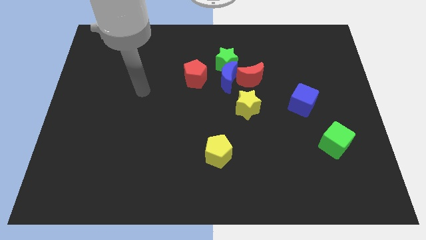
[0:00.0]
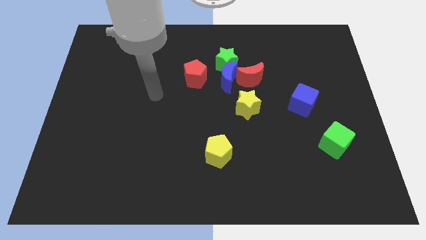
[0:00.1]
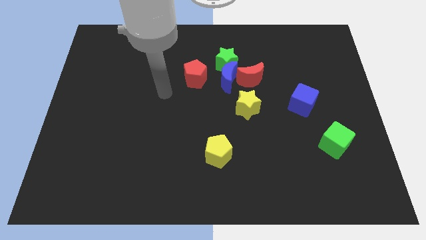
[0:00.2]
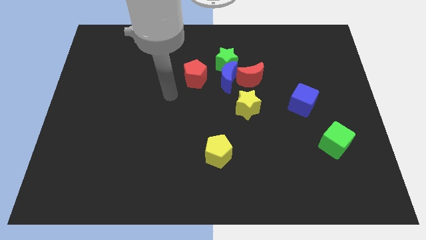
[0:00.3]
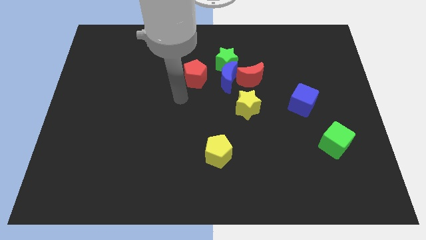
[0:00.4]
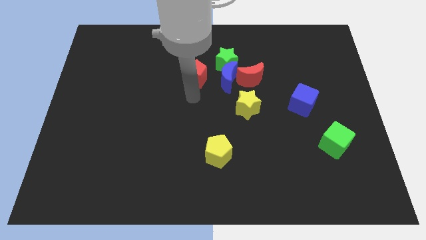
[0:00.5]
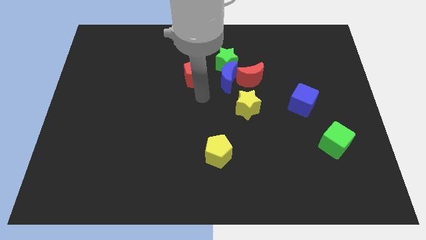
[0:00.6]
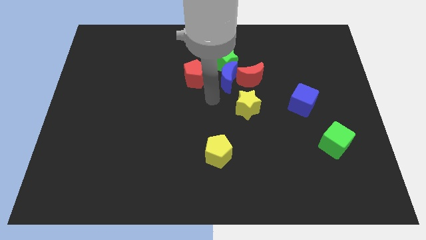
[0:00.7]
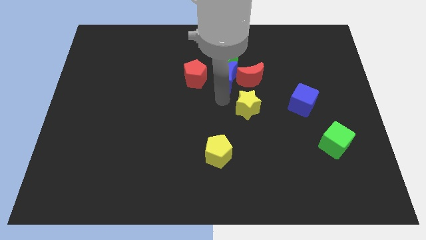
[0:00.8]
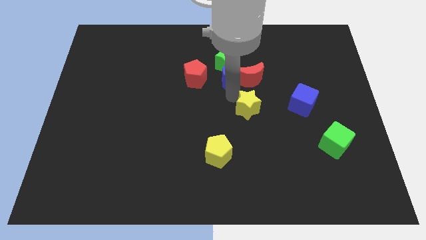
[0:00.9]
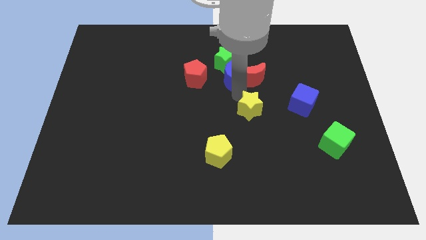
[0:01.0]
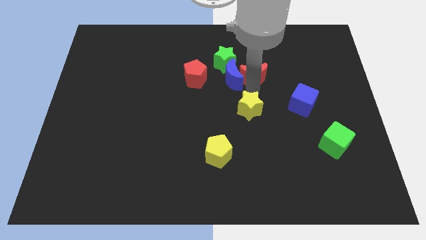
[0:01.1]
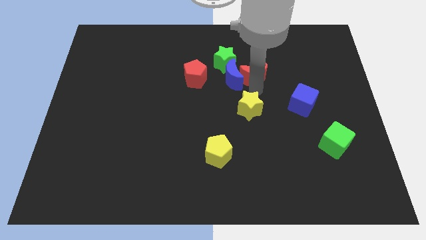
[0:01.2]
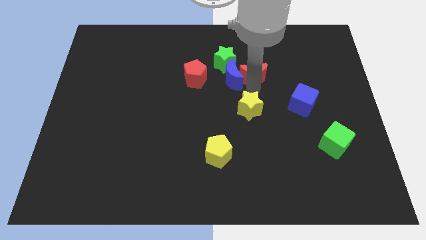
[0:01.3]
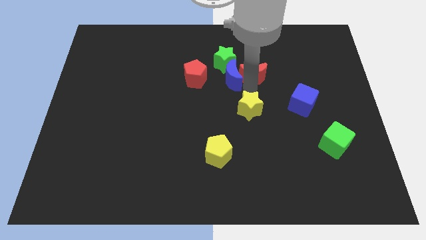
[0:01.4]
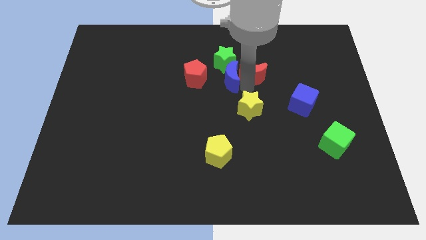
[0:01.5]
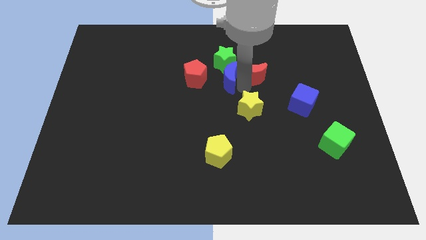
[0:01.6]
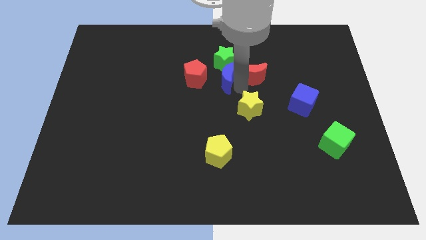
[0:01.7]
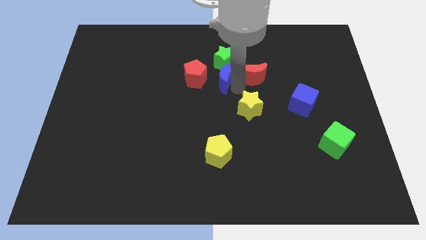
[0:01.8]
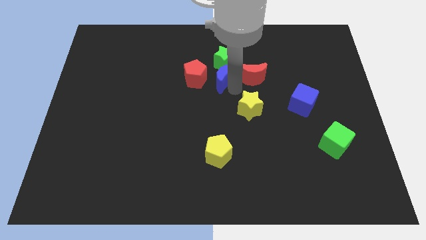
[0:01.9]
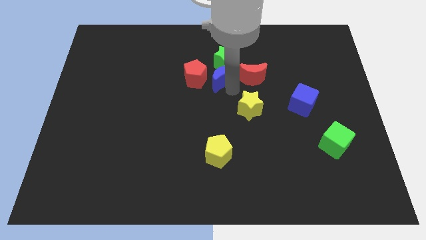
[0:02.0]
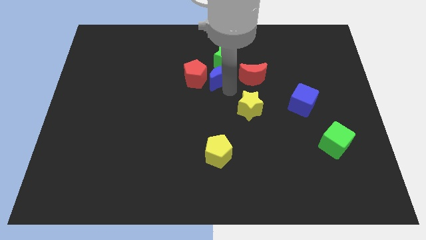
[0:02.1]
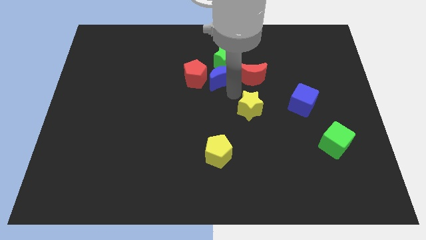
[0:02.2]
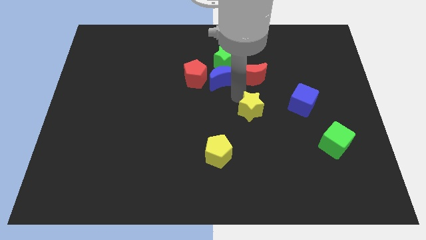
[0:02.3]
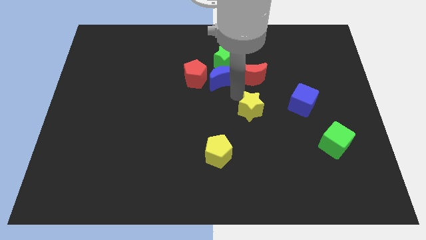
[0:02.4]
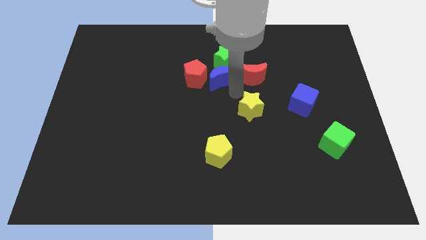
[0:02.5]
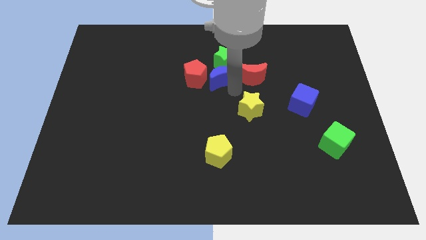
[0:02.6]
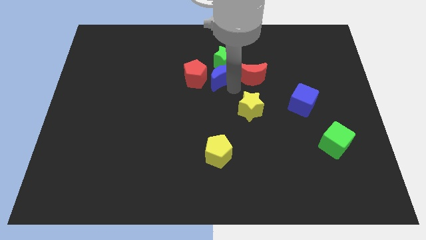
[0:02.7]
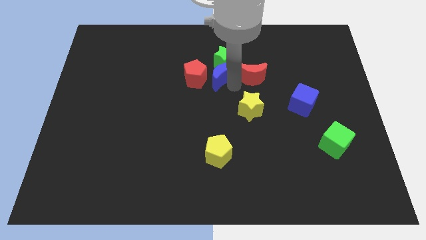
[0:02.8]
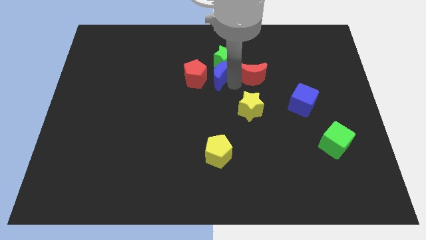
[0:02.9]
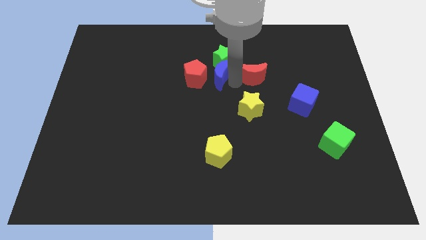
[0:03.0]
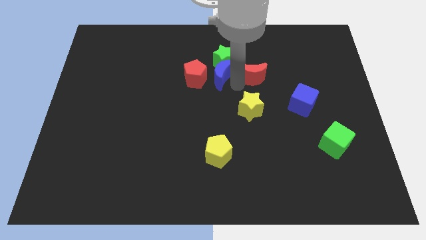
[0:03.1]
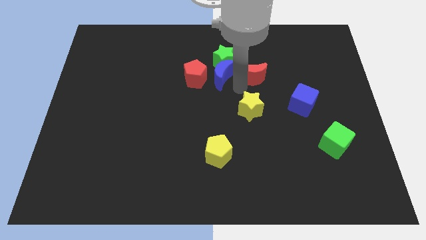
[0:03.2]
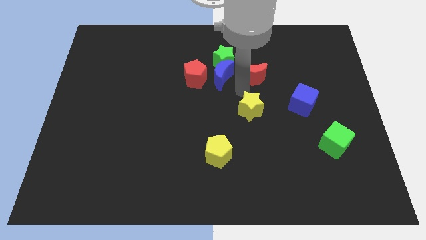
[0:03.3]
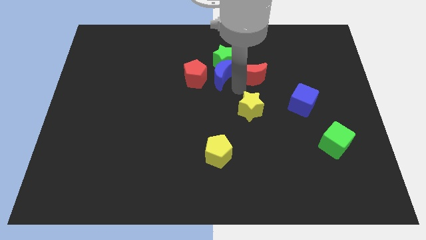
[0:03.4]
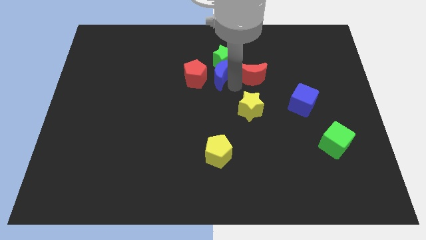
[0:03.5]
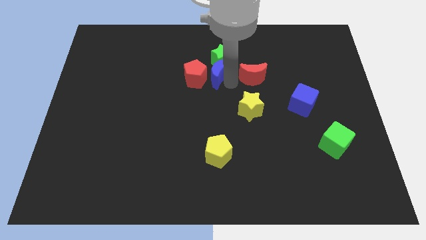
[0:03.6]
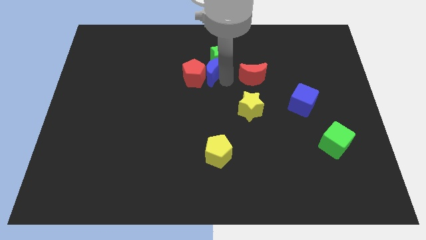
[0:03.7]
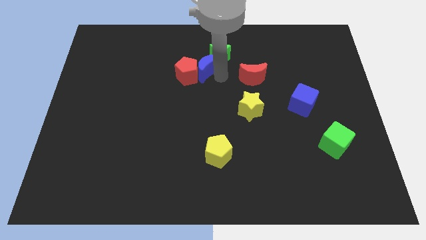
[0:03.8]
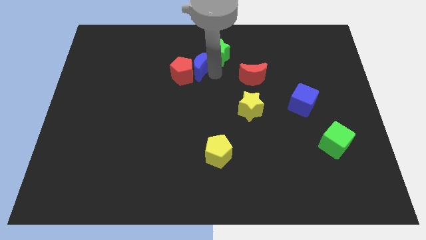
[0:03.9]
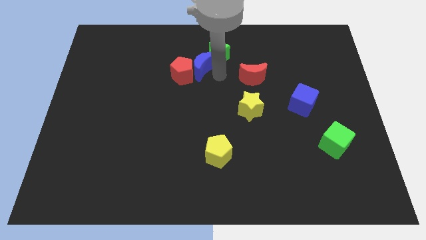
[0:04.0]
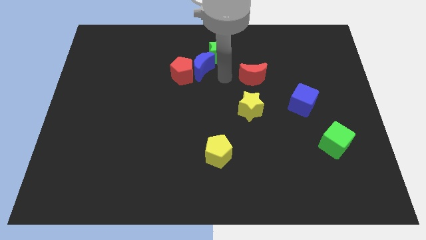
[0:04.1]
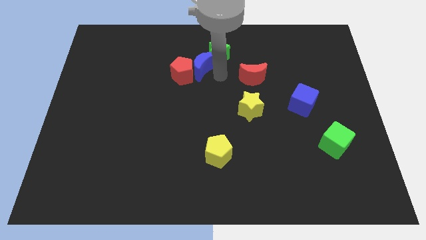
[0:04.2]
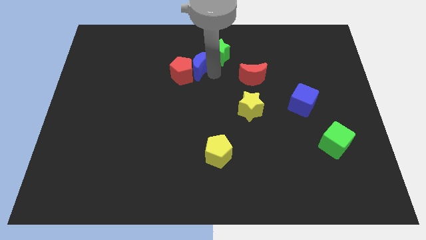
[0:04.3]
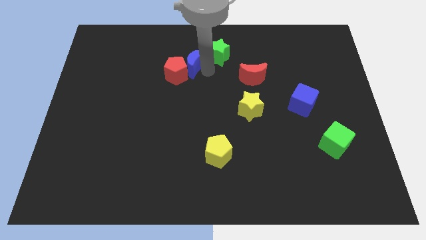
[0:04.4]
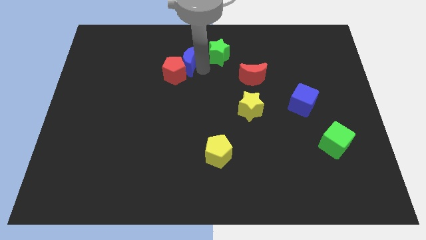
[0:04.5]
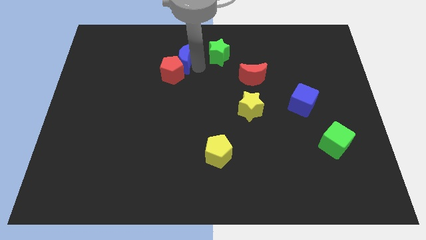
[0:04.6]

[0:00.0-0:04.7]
separate the blue moon from the group

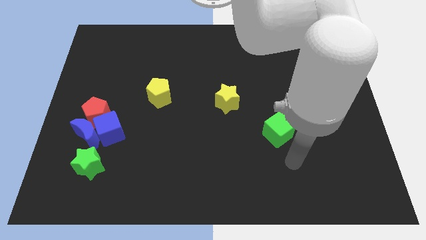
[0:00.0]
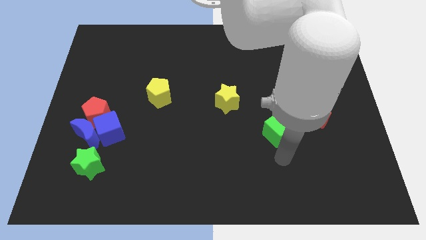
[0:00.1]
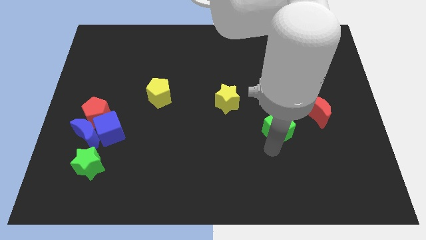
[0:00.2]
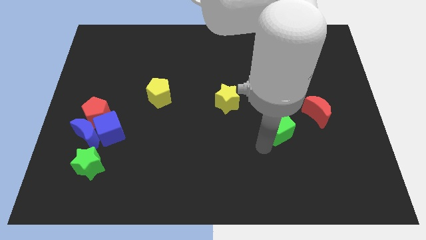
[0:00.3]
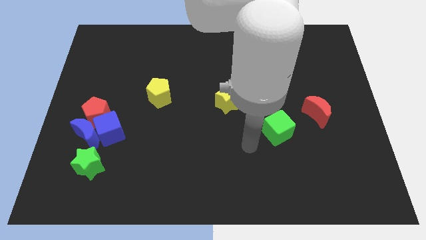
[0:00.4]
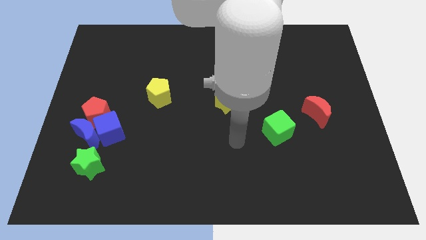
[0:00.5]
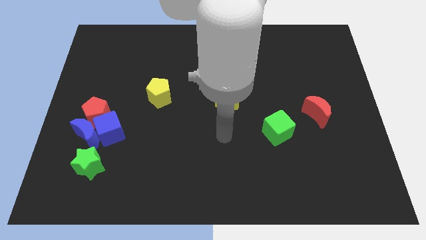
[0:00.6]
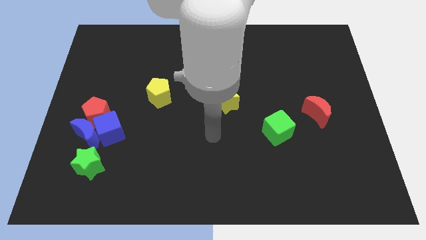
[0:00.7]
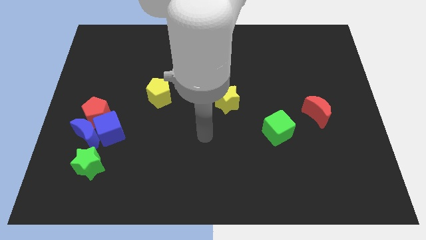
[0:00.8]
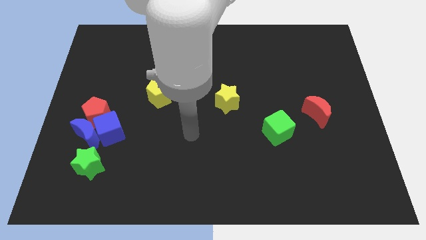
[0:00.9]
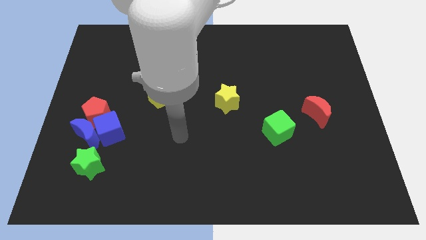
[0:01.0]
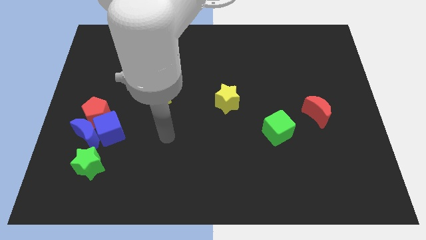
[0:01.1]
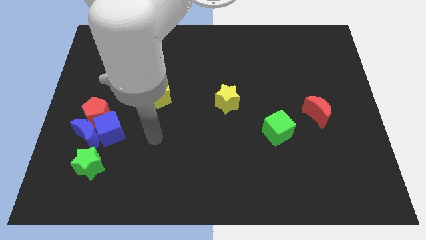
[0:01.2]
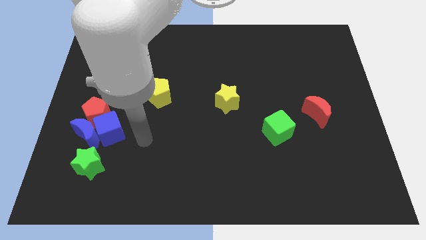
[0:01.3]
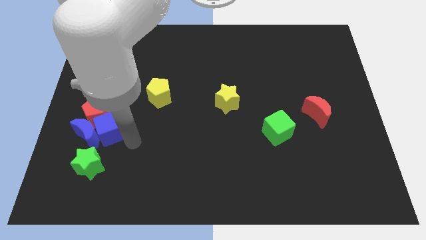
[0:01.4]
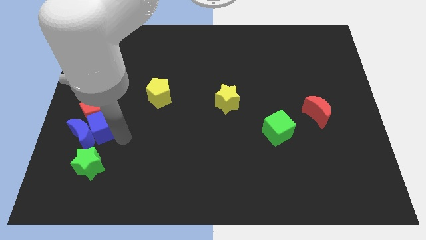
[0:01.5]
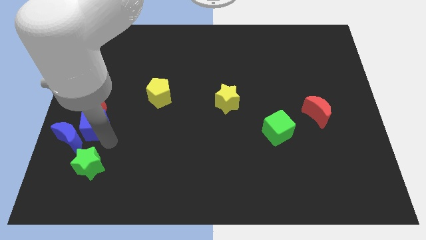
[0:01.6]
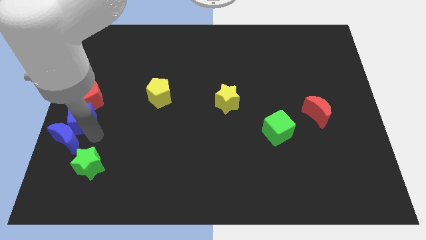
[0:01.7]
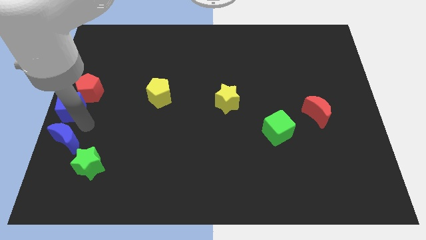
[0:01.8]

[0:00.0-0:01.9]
move the red pentagon away from the blue moon and blue cube

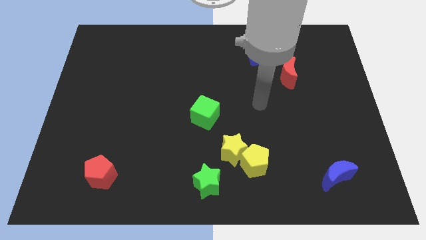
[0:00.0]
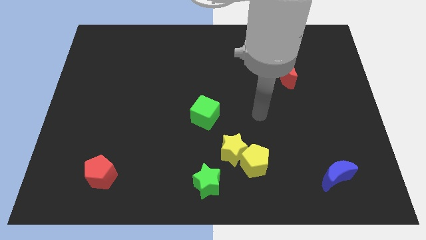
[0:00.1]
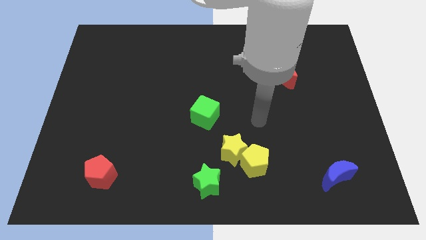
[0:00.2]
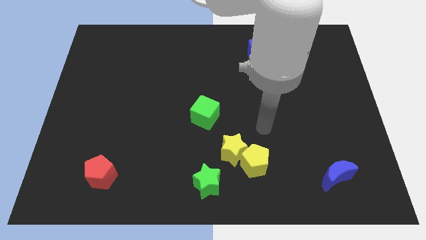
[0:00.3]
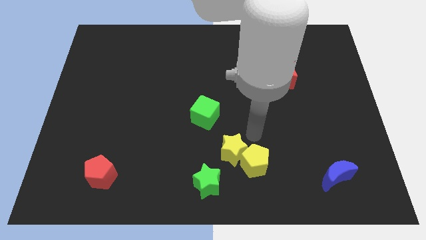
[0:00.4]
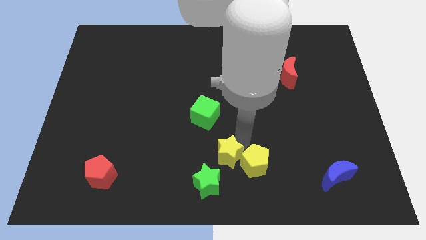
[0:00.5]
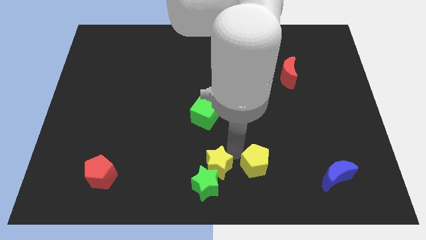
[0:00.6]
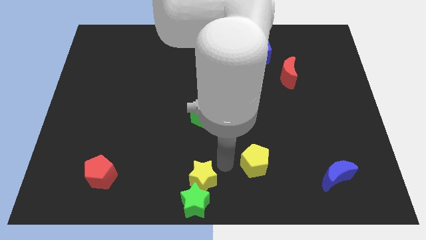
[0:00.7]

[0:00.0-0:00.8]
pull the yellow pentagon apart from the yellow star

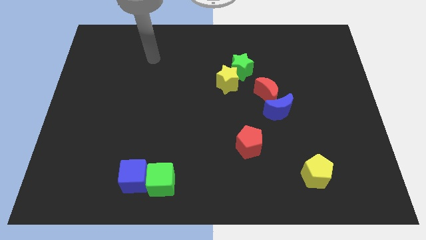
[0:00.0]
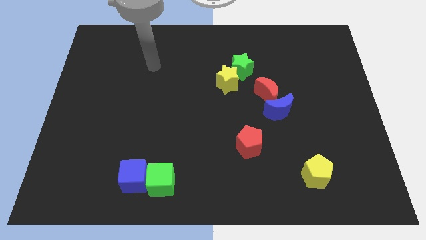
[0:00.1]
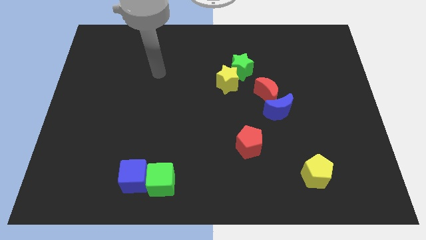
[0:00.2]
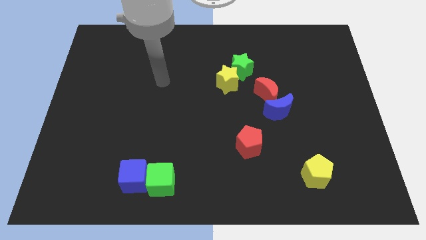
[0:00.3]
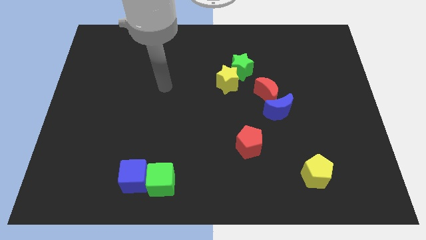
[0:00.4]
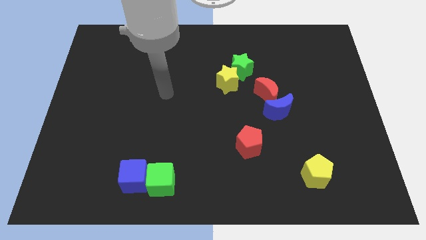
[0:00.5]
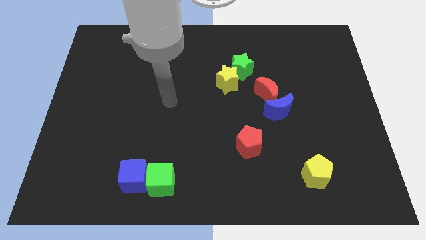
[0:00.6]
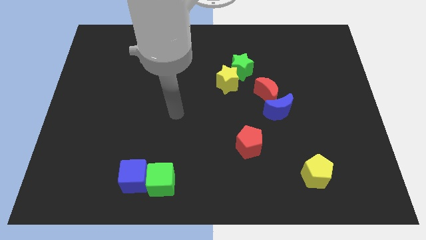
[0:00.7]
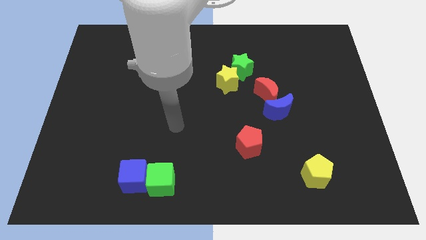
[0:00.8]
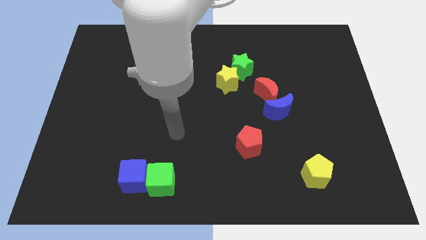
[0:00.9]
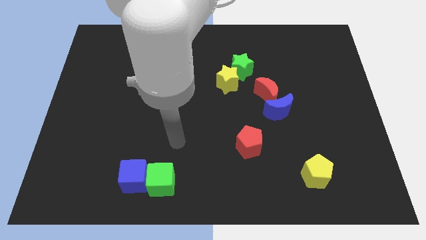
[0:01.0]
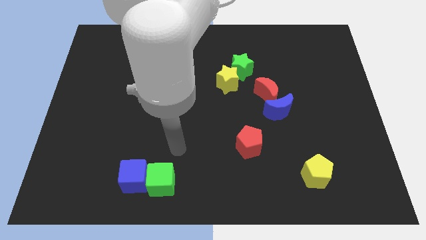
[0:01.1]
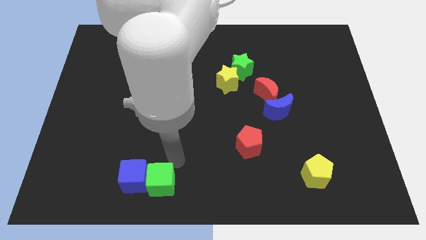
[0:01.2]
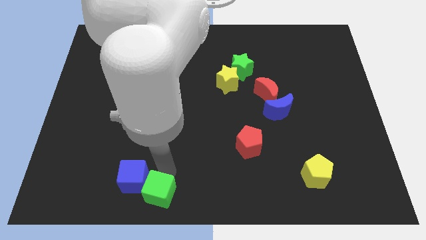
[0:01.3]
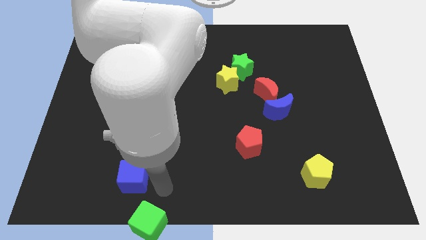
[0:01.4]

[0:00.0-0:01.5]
pull the blue cube apart from the green cube

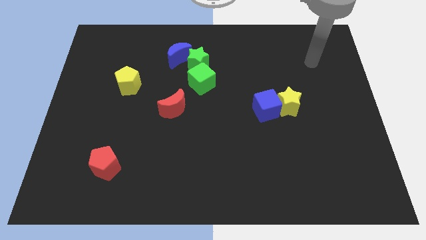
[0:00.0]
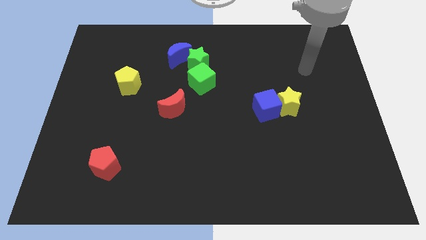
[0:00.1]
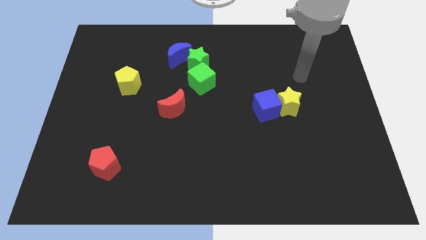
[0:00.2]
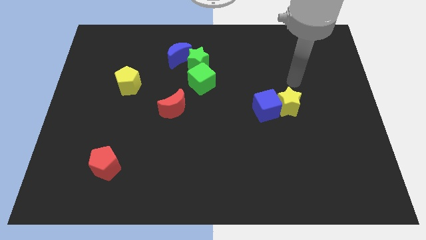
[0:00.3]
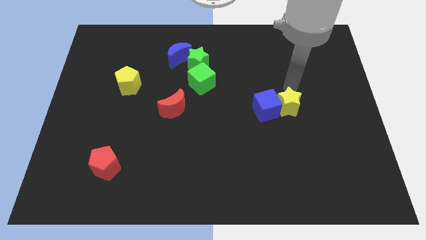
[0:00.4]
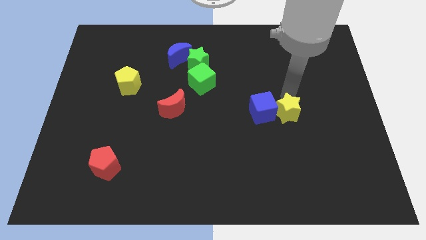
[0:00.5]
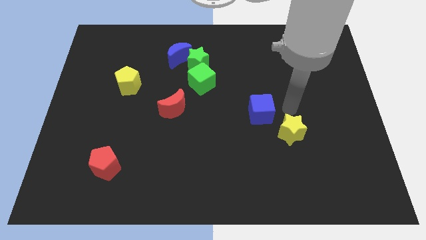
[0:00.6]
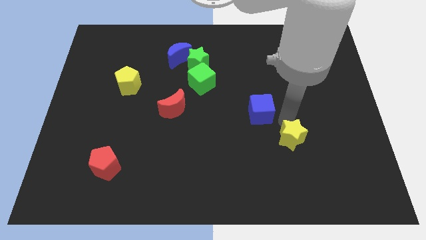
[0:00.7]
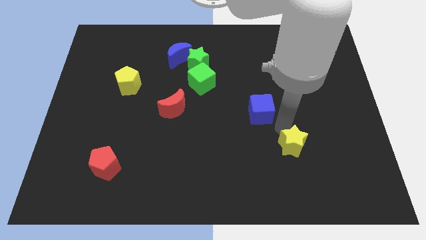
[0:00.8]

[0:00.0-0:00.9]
separate the blue cube from the yellow star
